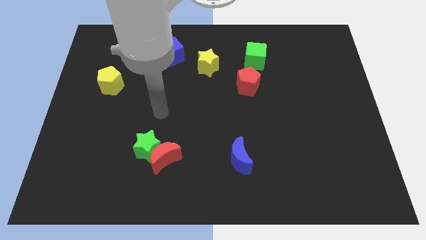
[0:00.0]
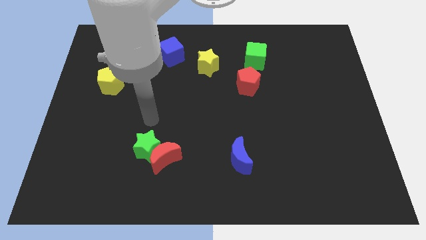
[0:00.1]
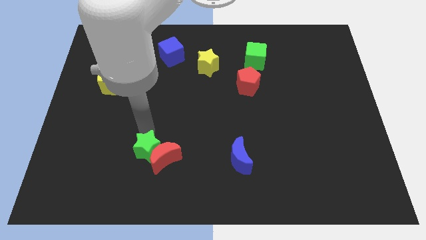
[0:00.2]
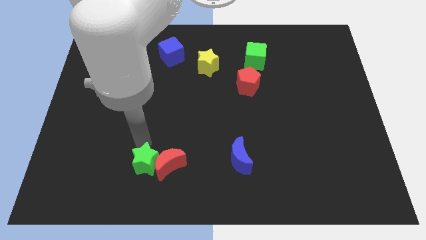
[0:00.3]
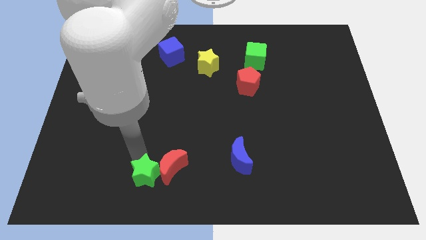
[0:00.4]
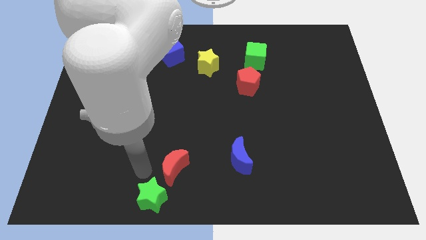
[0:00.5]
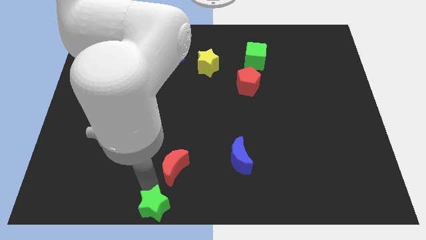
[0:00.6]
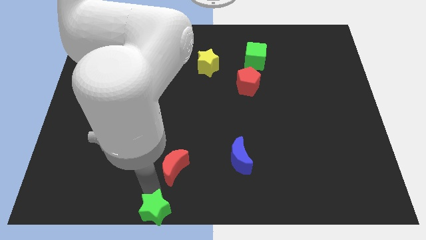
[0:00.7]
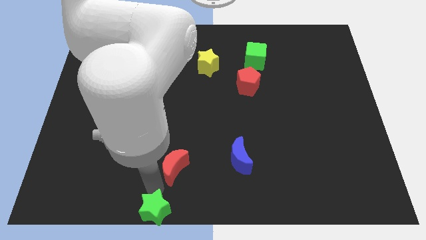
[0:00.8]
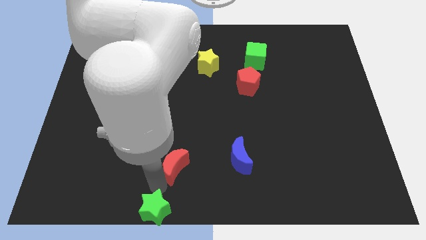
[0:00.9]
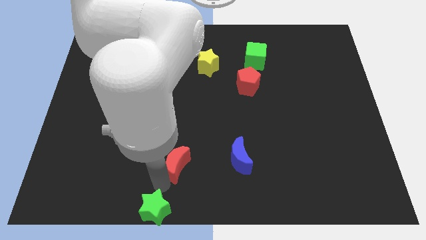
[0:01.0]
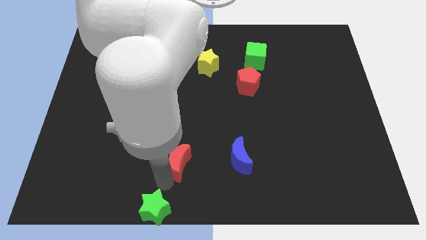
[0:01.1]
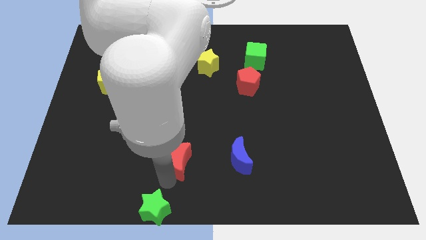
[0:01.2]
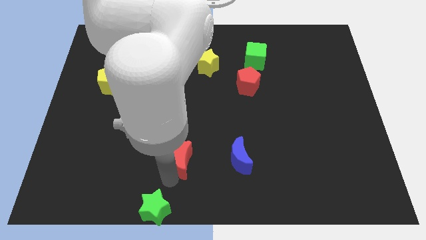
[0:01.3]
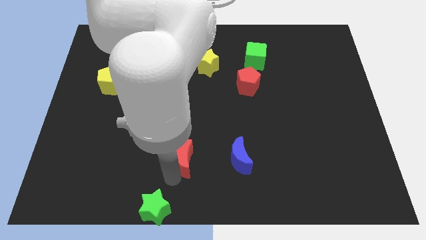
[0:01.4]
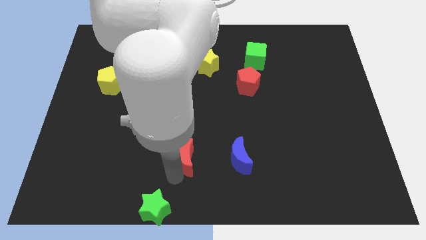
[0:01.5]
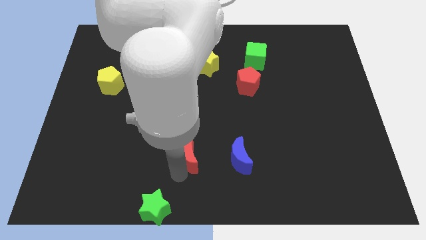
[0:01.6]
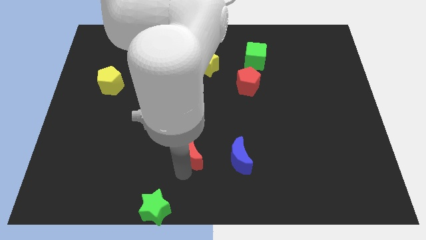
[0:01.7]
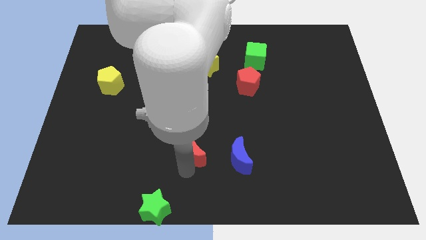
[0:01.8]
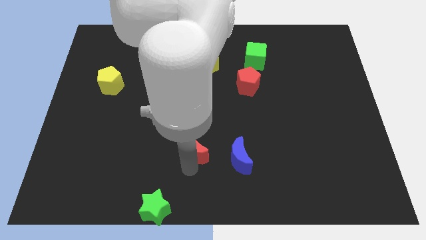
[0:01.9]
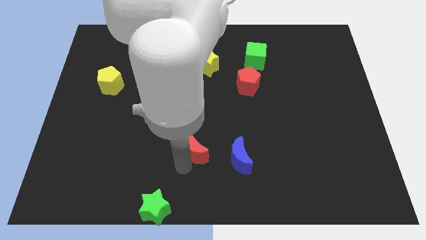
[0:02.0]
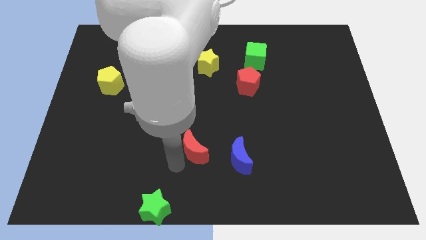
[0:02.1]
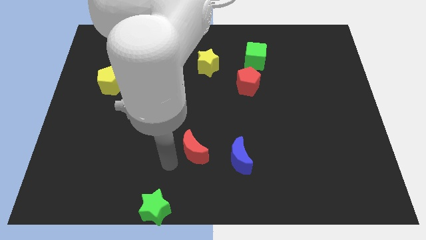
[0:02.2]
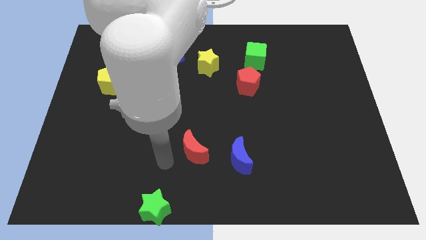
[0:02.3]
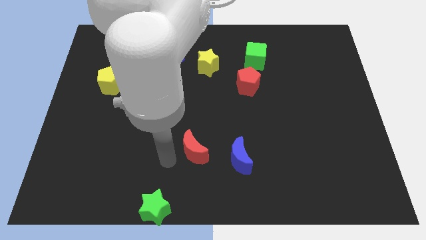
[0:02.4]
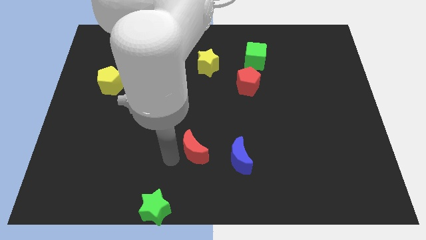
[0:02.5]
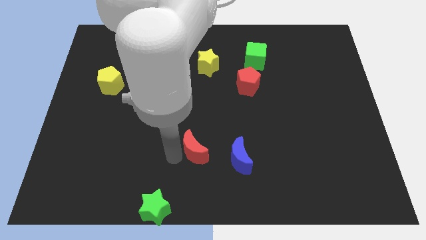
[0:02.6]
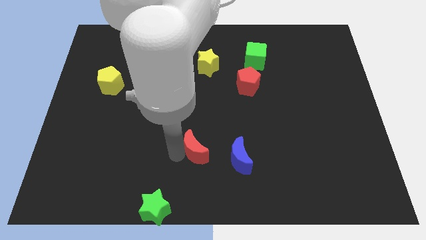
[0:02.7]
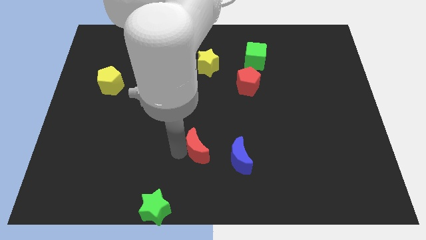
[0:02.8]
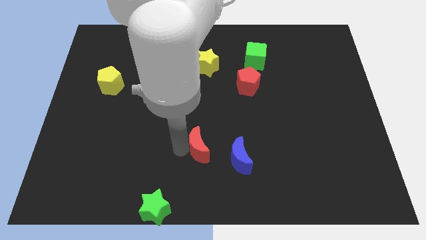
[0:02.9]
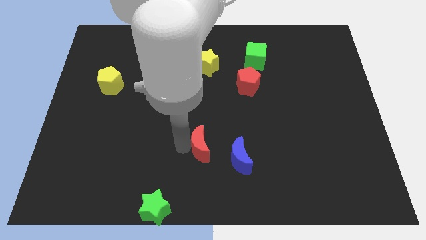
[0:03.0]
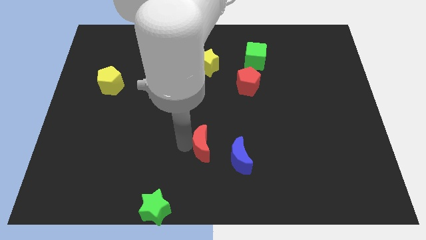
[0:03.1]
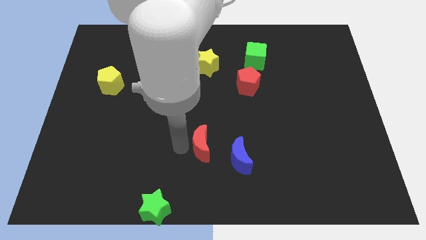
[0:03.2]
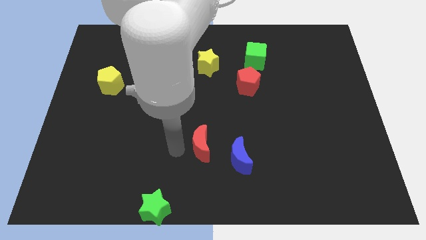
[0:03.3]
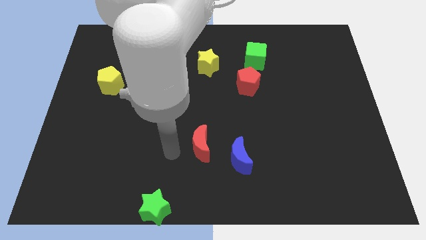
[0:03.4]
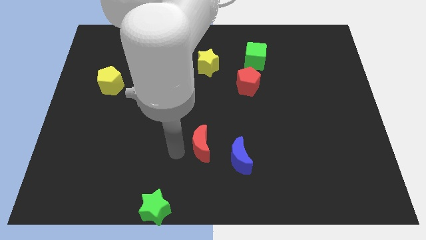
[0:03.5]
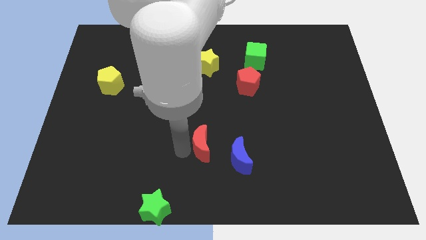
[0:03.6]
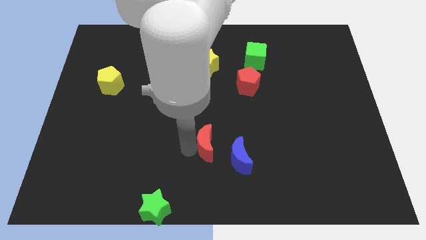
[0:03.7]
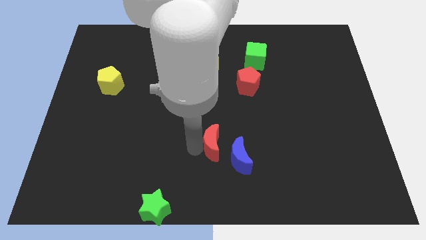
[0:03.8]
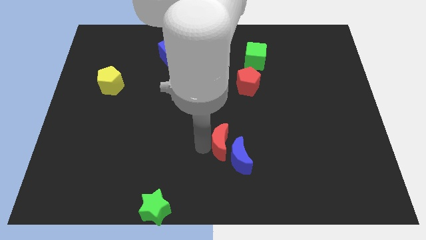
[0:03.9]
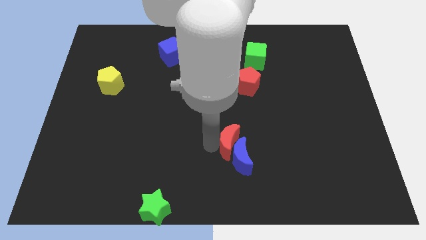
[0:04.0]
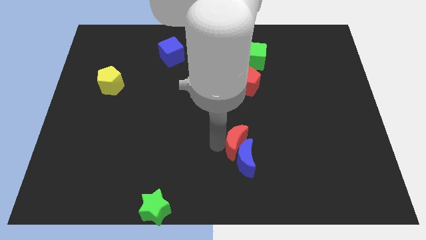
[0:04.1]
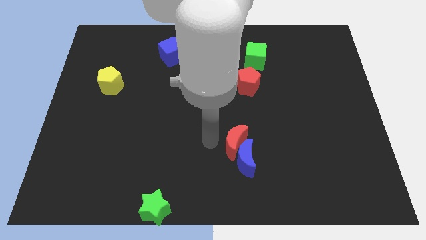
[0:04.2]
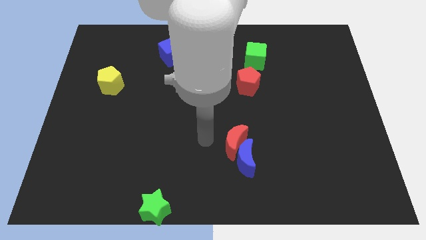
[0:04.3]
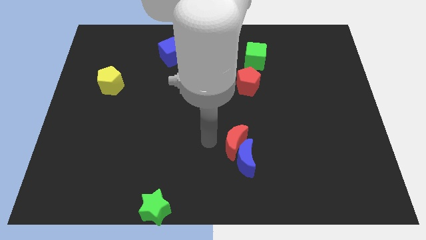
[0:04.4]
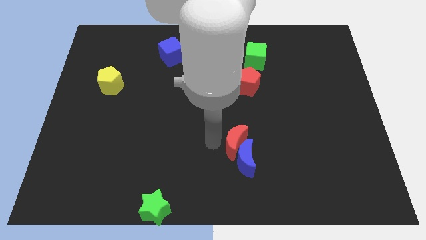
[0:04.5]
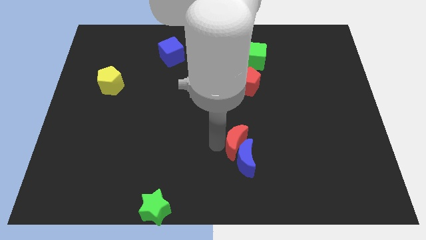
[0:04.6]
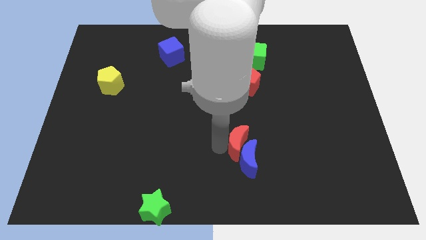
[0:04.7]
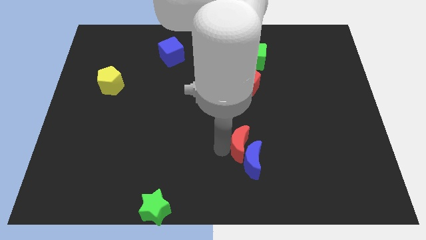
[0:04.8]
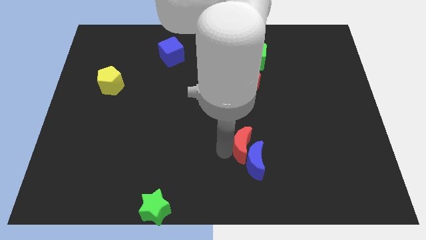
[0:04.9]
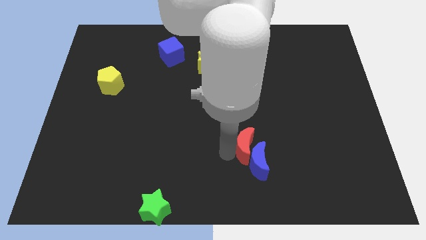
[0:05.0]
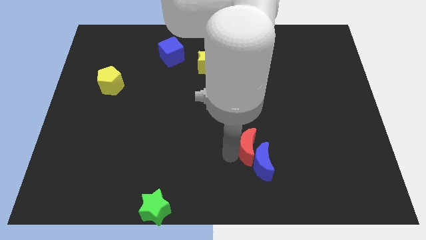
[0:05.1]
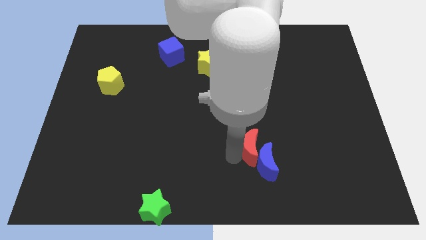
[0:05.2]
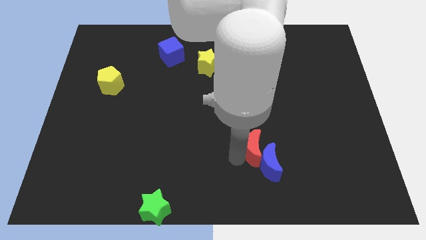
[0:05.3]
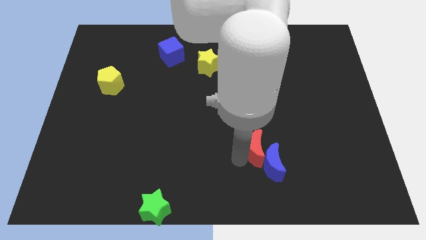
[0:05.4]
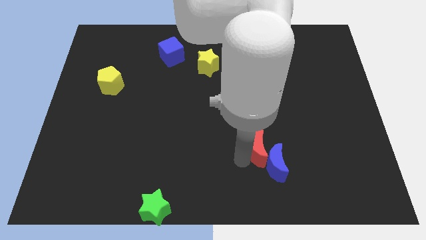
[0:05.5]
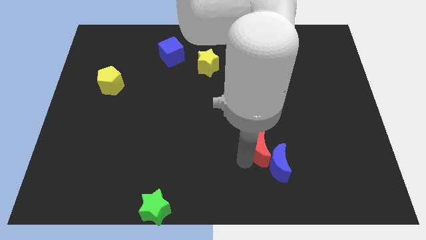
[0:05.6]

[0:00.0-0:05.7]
move the red moon to the right

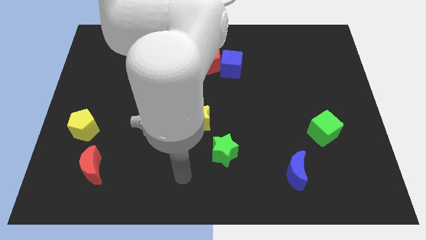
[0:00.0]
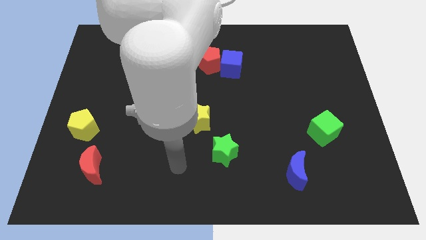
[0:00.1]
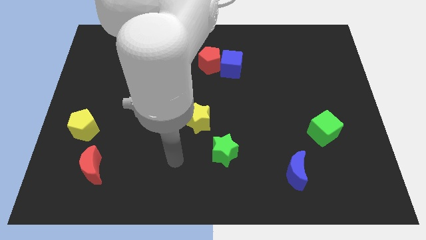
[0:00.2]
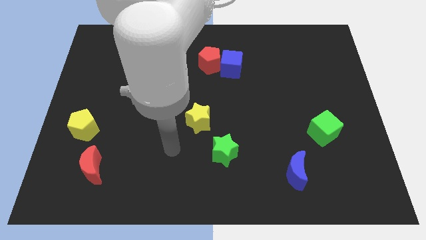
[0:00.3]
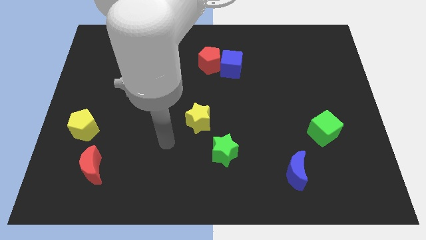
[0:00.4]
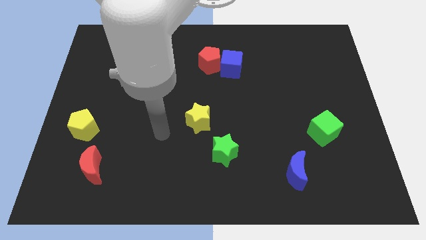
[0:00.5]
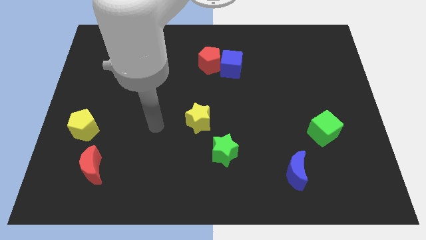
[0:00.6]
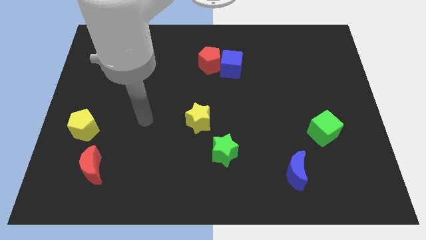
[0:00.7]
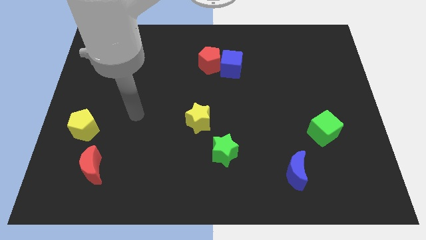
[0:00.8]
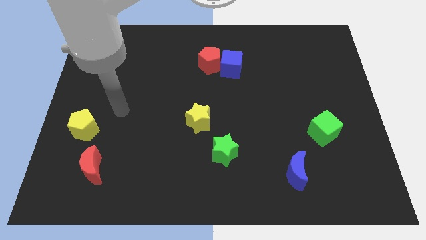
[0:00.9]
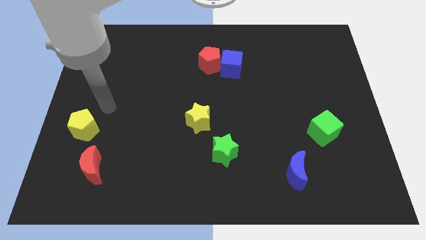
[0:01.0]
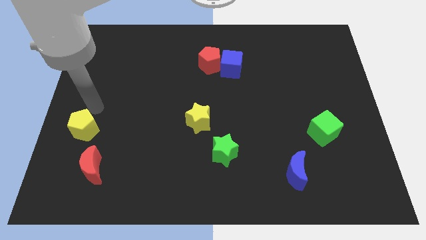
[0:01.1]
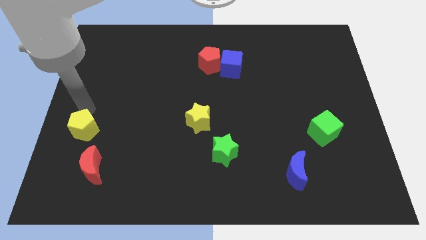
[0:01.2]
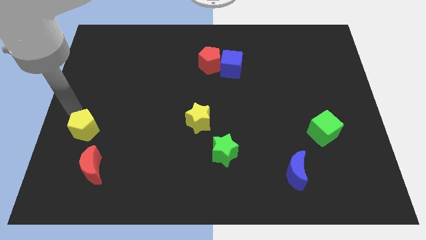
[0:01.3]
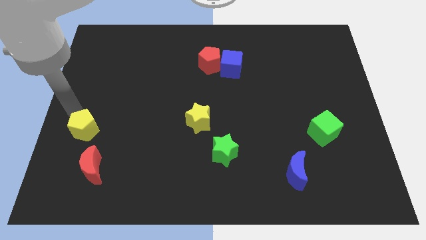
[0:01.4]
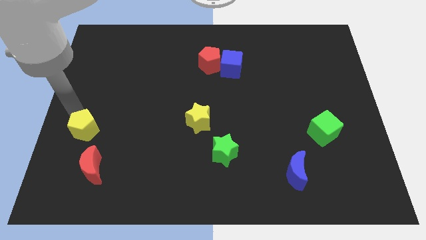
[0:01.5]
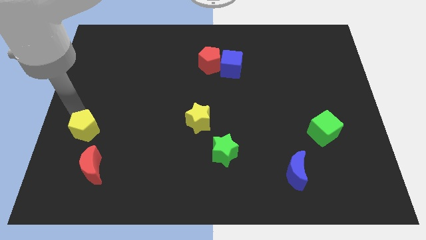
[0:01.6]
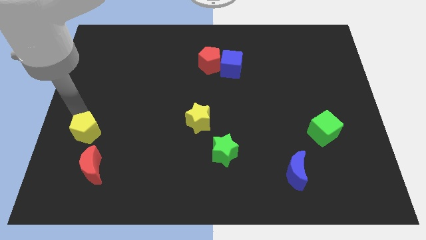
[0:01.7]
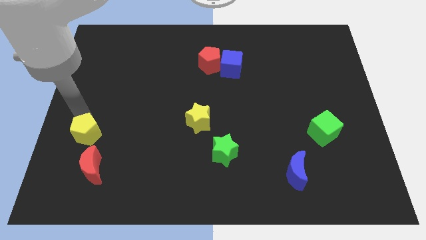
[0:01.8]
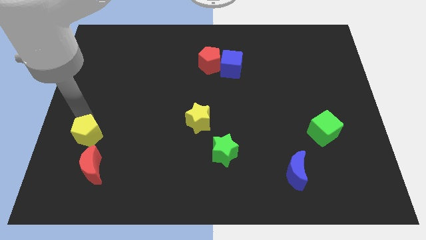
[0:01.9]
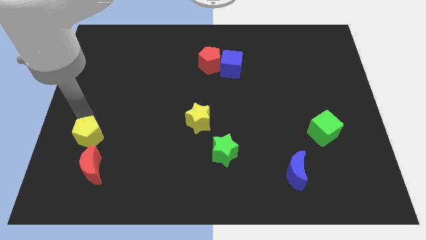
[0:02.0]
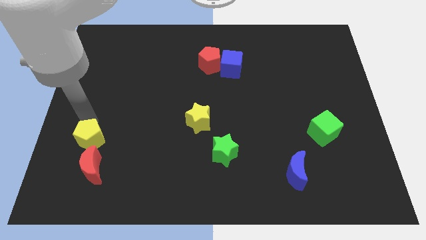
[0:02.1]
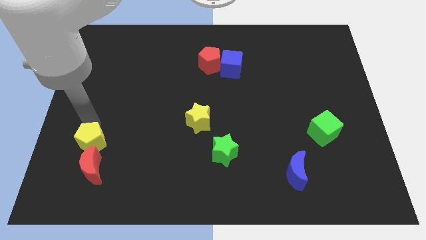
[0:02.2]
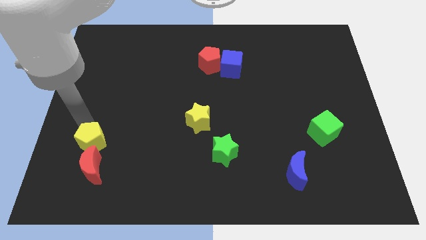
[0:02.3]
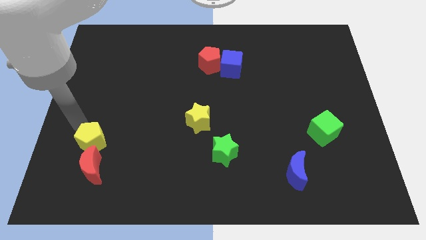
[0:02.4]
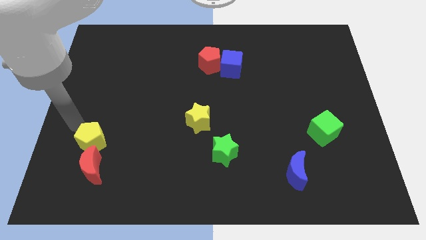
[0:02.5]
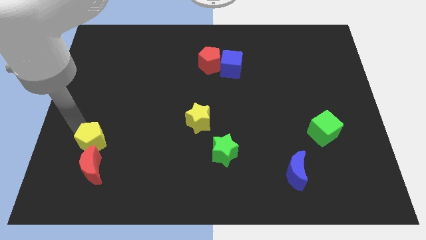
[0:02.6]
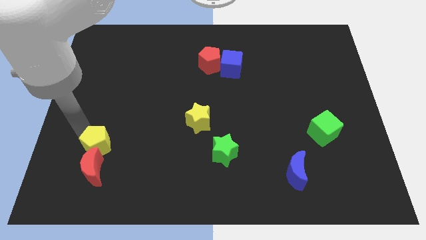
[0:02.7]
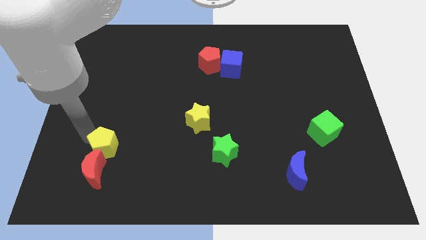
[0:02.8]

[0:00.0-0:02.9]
move the yellow pentagon somewhat diagonally downwards and right
